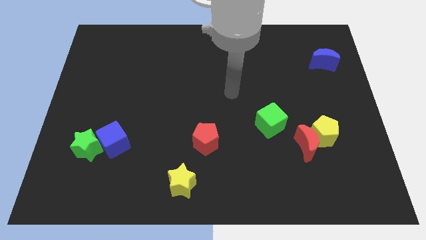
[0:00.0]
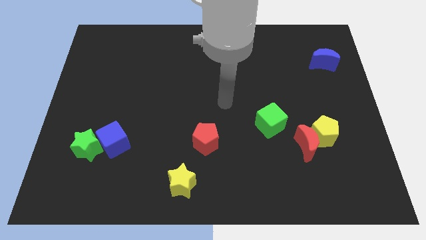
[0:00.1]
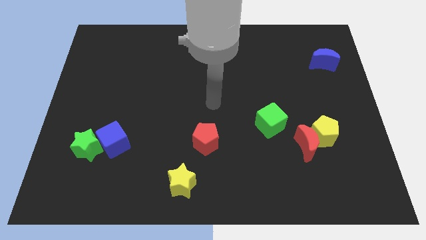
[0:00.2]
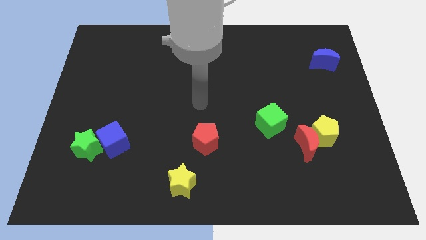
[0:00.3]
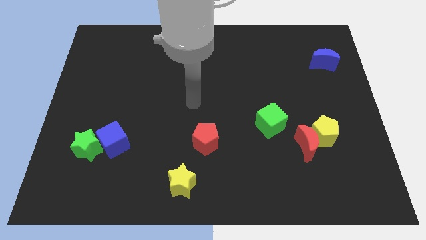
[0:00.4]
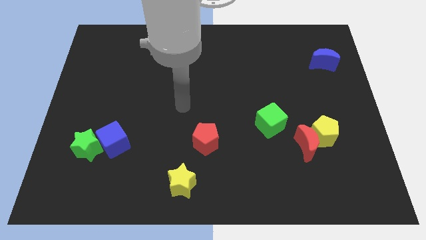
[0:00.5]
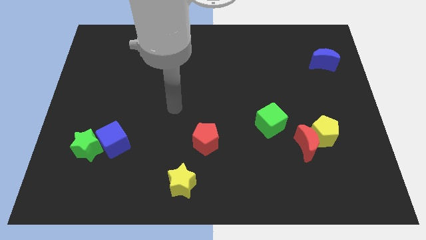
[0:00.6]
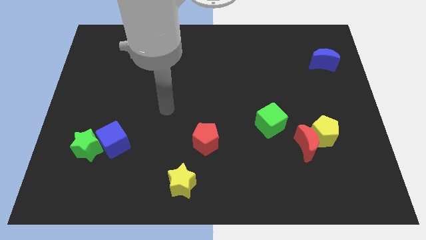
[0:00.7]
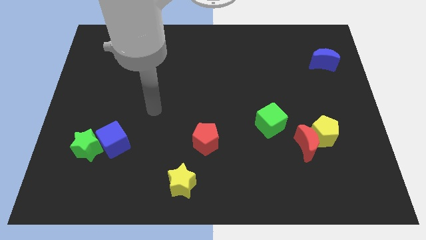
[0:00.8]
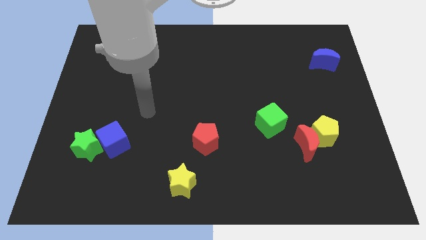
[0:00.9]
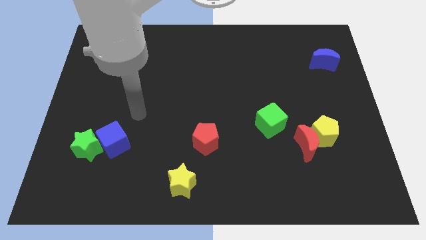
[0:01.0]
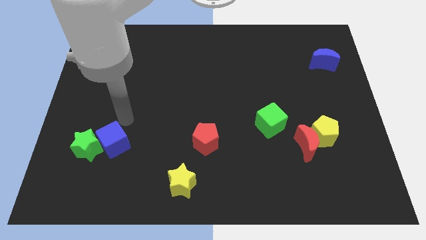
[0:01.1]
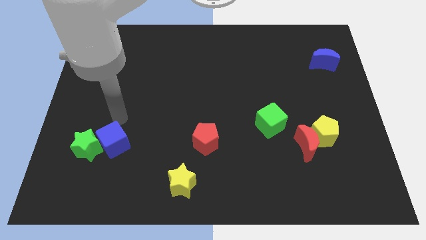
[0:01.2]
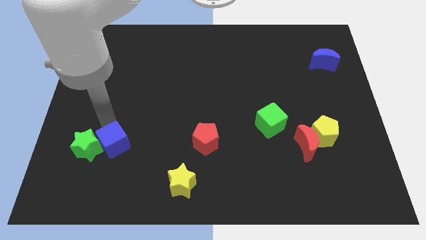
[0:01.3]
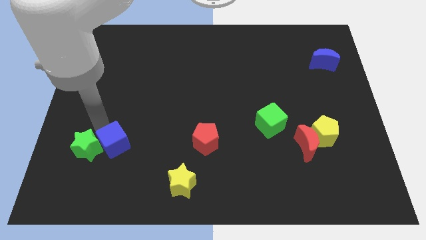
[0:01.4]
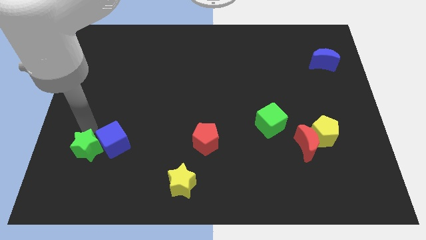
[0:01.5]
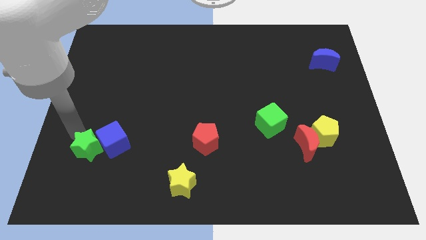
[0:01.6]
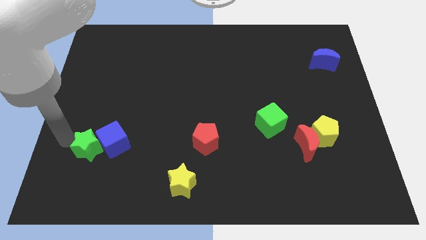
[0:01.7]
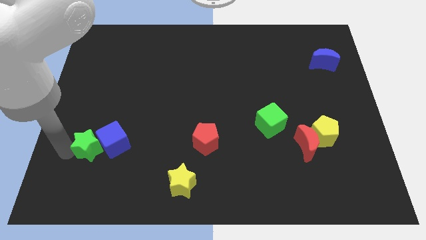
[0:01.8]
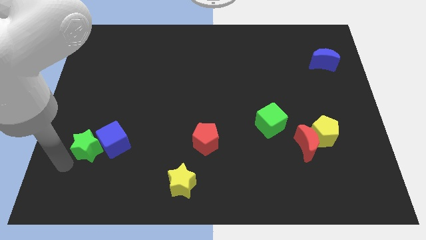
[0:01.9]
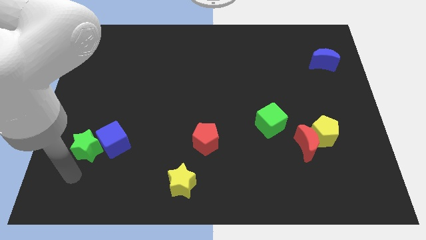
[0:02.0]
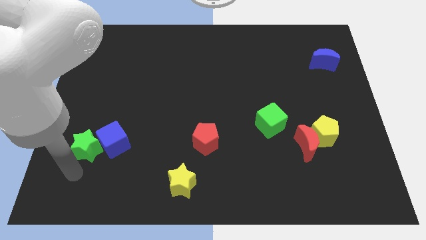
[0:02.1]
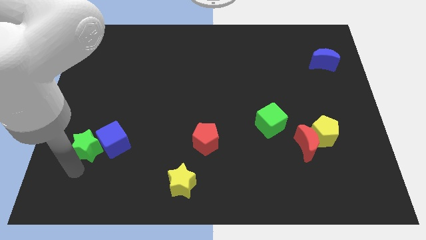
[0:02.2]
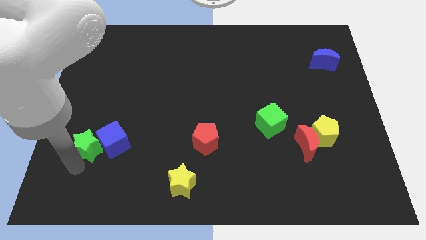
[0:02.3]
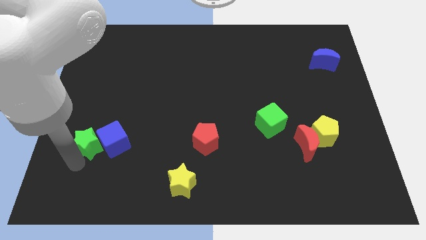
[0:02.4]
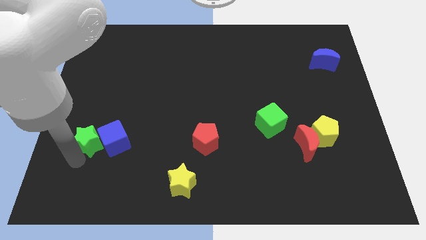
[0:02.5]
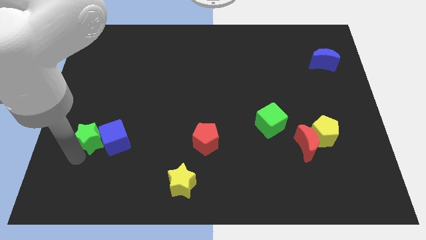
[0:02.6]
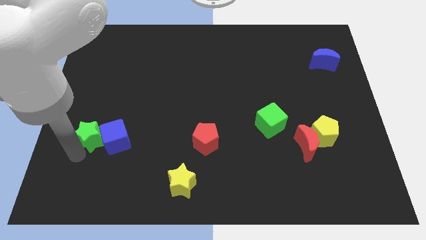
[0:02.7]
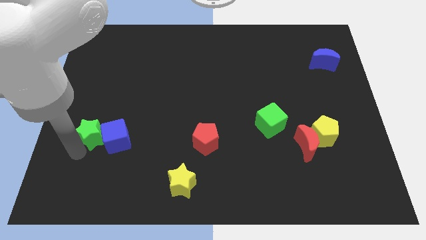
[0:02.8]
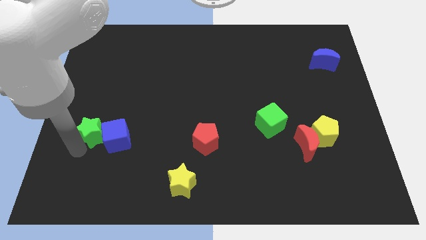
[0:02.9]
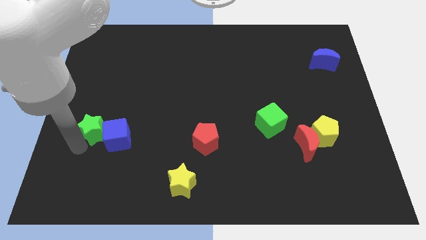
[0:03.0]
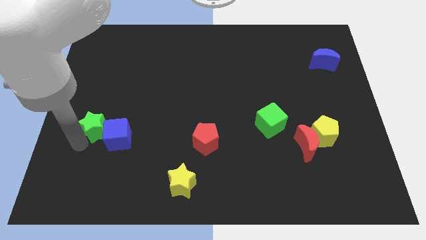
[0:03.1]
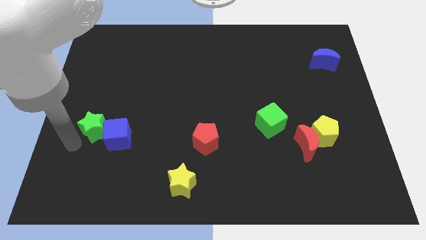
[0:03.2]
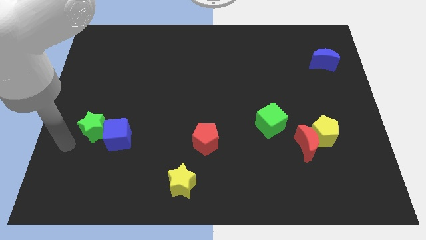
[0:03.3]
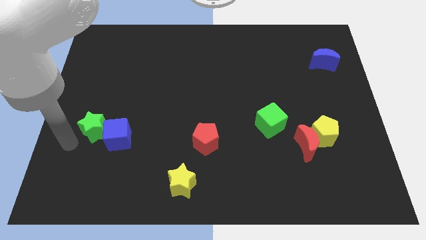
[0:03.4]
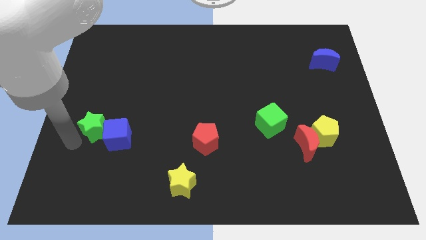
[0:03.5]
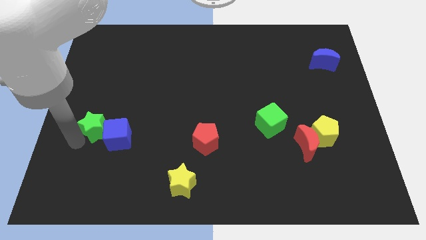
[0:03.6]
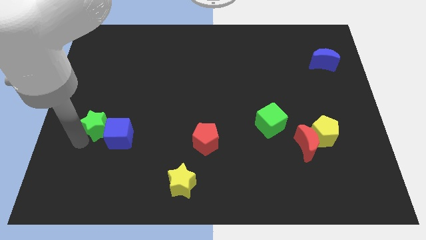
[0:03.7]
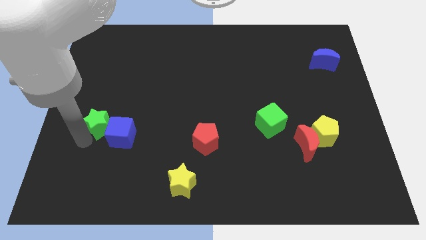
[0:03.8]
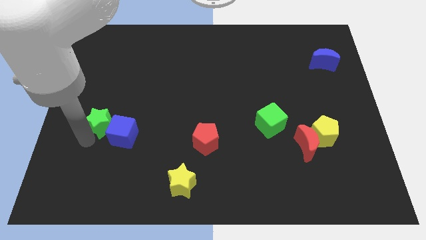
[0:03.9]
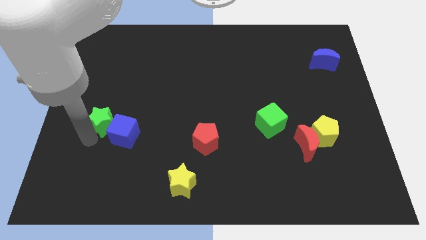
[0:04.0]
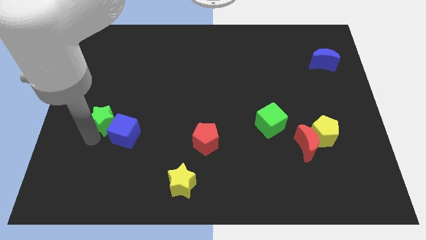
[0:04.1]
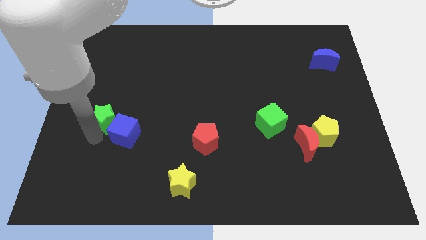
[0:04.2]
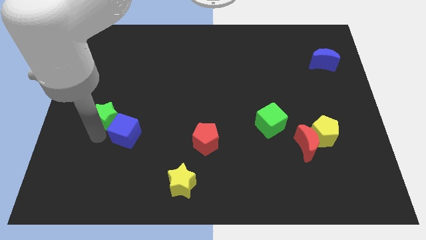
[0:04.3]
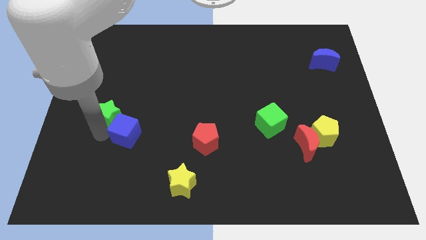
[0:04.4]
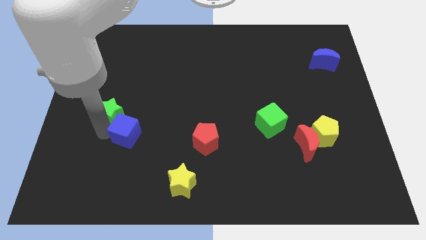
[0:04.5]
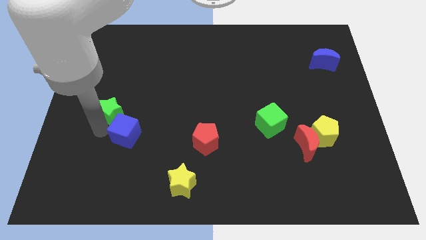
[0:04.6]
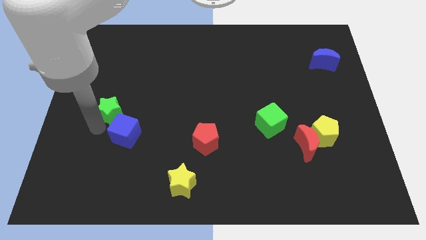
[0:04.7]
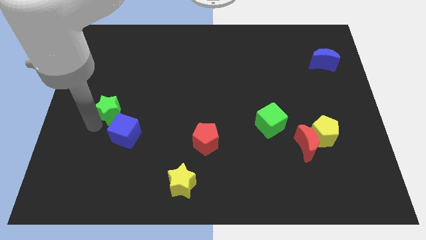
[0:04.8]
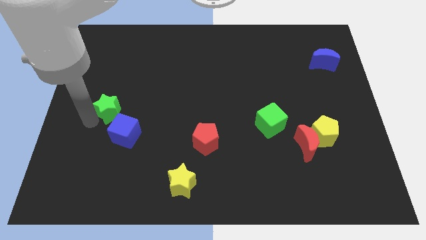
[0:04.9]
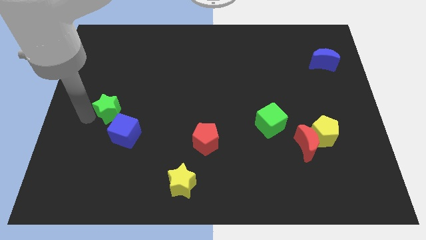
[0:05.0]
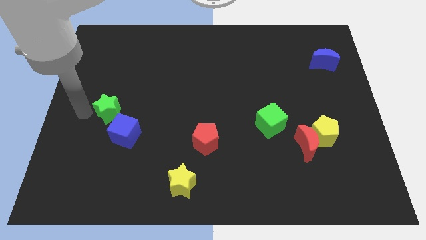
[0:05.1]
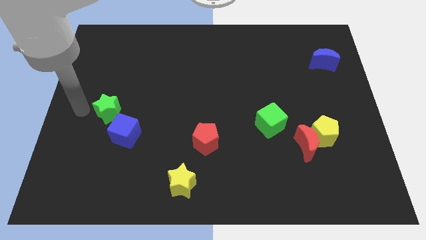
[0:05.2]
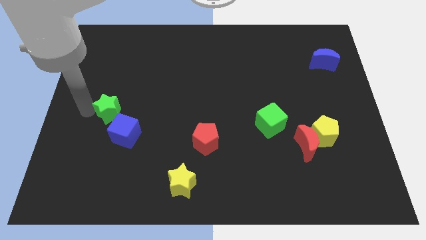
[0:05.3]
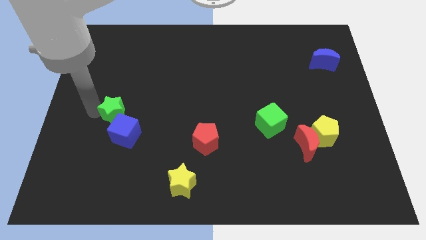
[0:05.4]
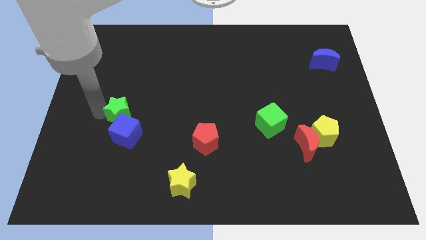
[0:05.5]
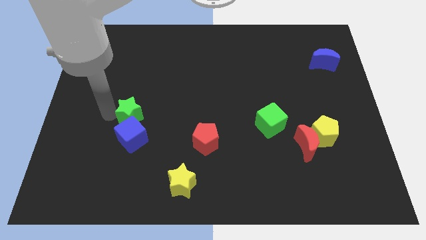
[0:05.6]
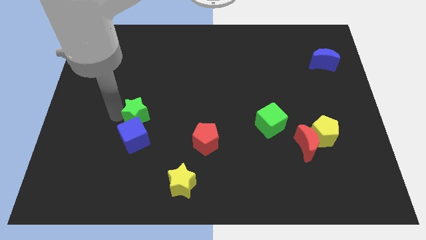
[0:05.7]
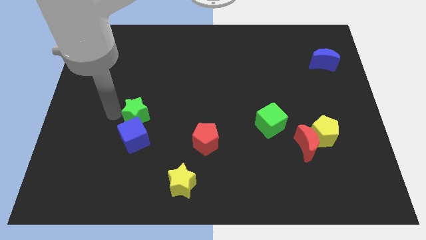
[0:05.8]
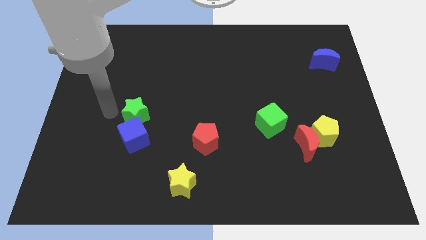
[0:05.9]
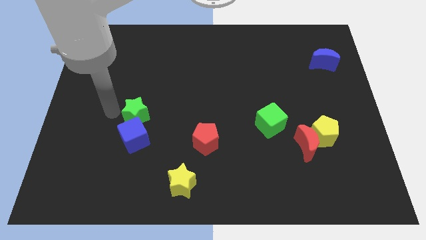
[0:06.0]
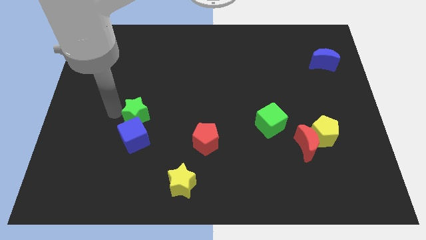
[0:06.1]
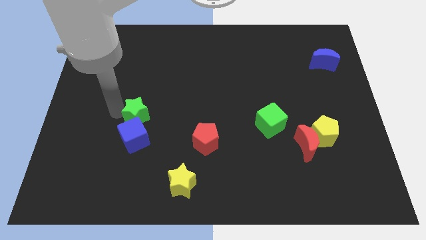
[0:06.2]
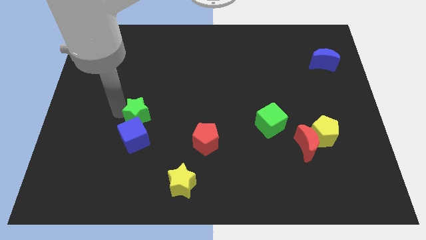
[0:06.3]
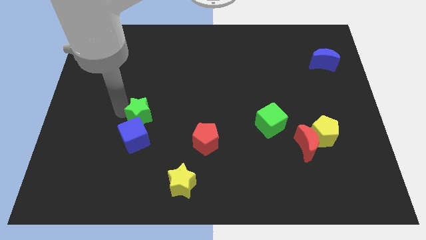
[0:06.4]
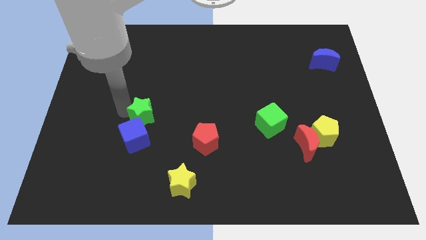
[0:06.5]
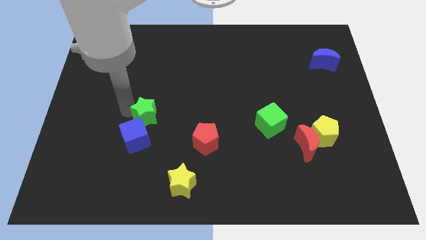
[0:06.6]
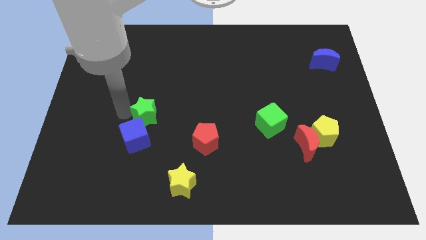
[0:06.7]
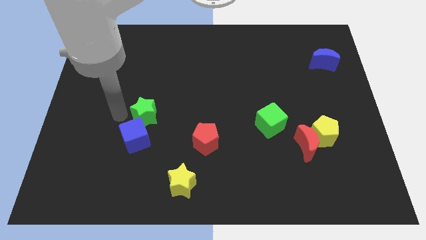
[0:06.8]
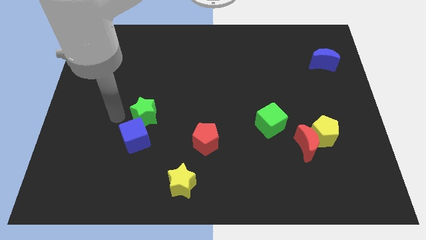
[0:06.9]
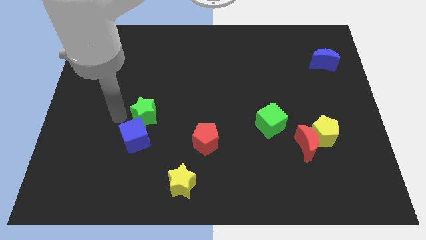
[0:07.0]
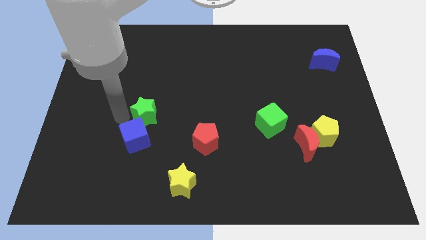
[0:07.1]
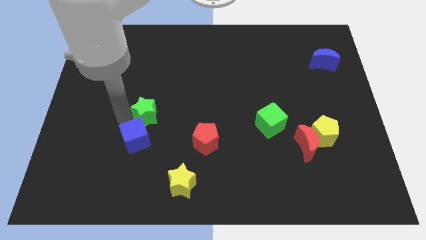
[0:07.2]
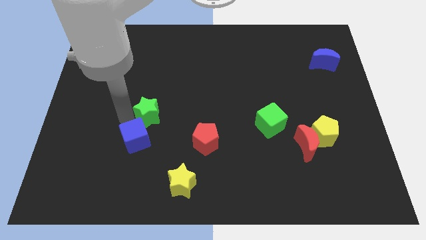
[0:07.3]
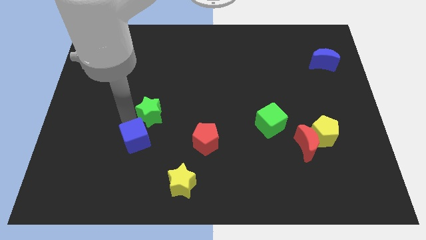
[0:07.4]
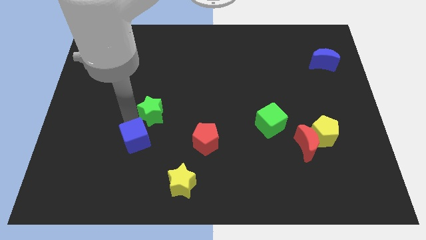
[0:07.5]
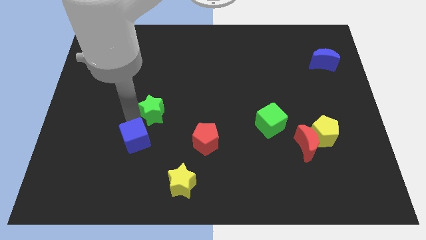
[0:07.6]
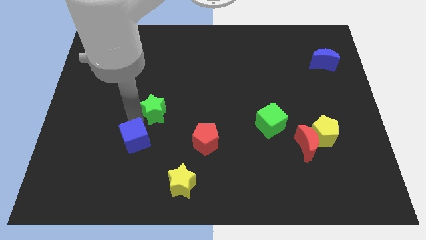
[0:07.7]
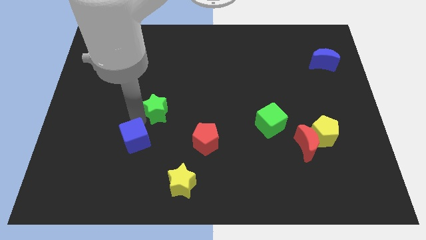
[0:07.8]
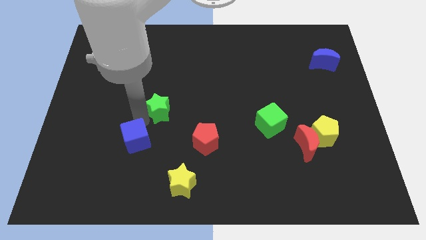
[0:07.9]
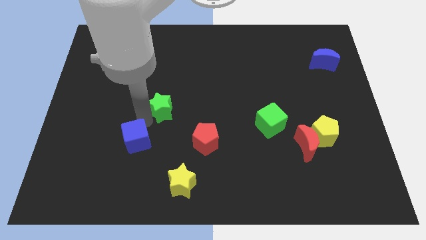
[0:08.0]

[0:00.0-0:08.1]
slide the green star to the center of the board
